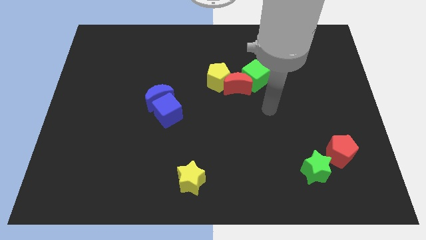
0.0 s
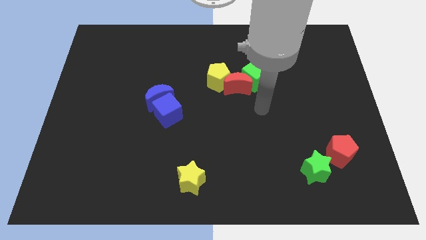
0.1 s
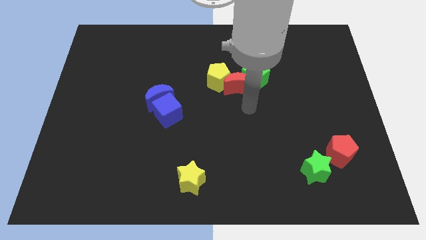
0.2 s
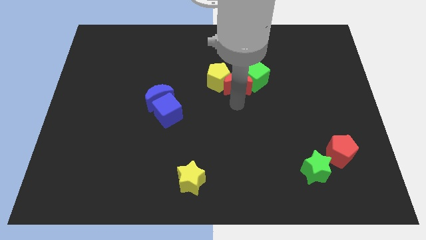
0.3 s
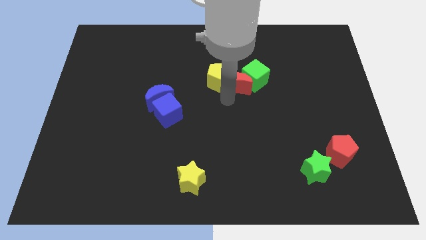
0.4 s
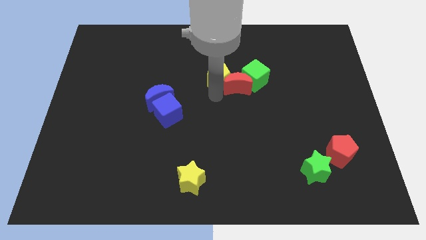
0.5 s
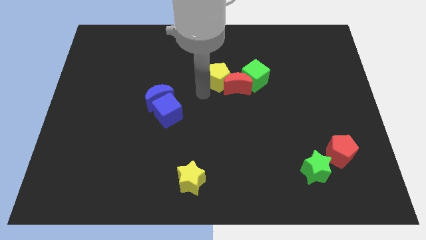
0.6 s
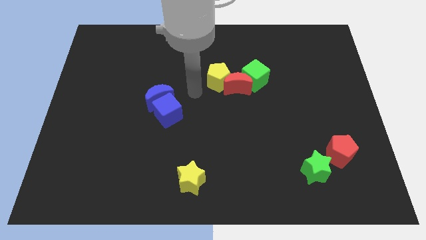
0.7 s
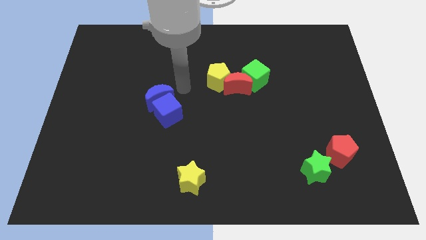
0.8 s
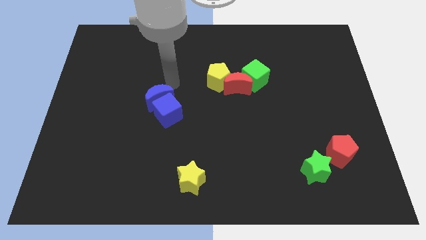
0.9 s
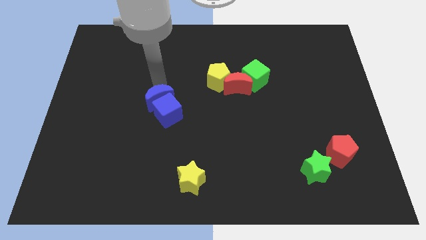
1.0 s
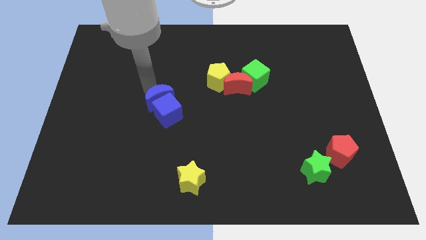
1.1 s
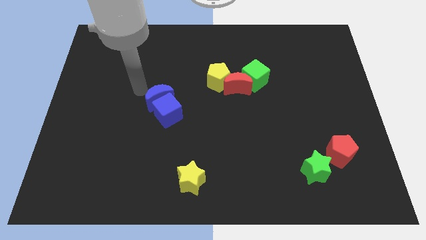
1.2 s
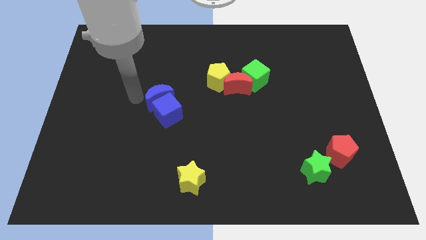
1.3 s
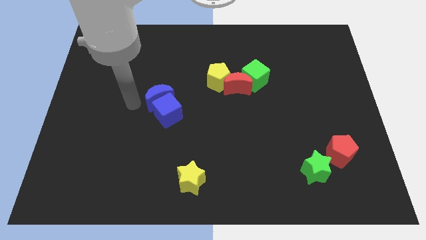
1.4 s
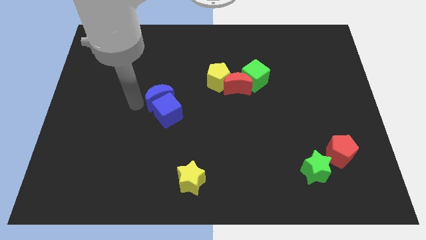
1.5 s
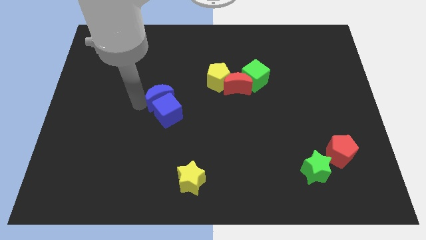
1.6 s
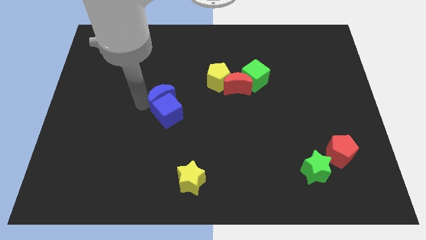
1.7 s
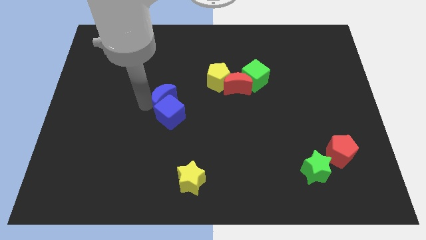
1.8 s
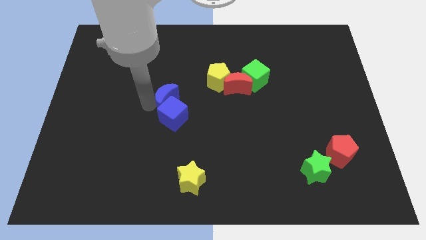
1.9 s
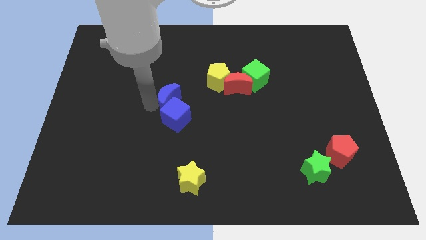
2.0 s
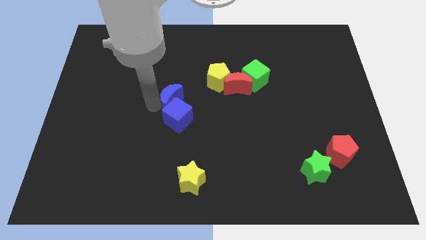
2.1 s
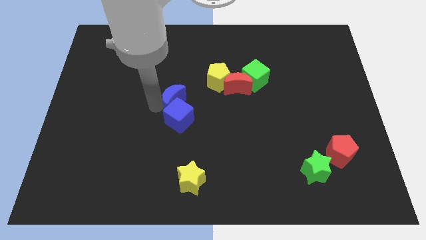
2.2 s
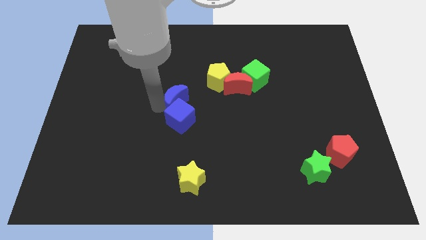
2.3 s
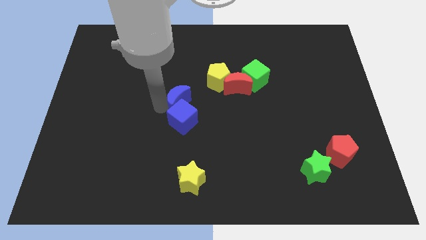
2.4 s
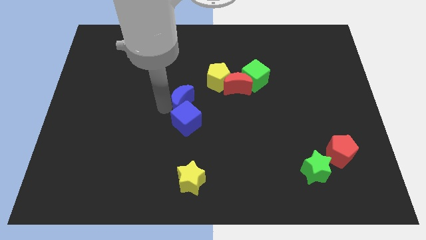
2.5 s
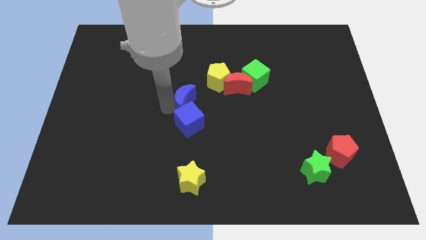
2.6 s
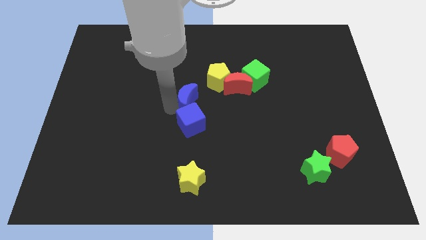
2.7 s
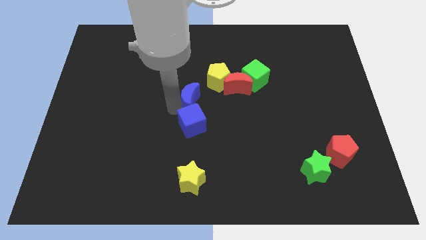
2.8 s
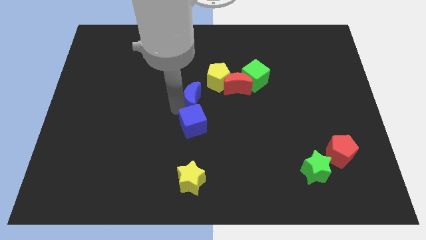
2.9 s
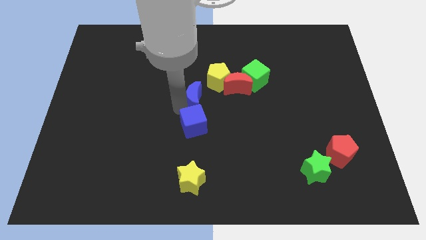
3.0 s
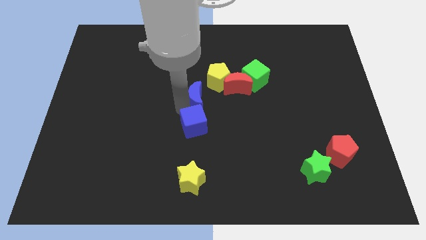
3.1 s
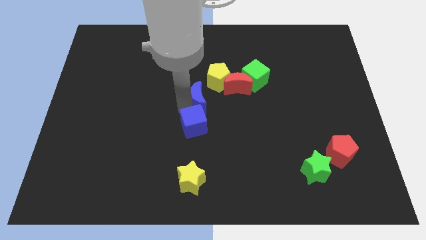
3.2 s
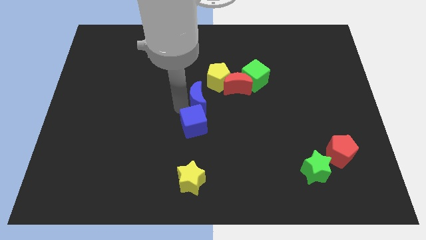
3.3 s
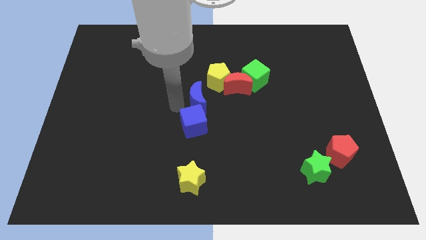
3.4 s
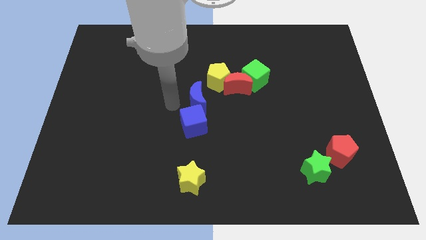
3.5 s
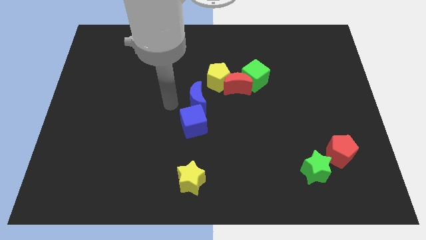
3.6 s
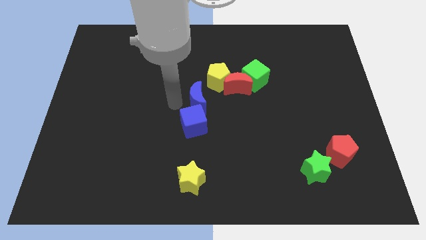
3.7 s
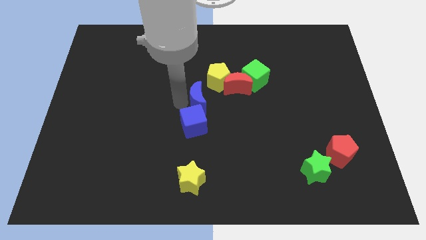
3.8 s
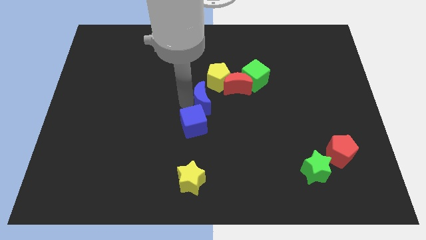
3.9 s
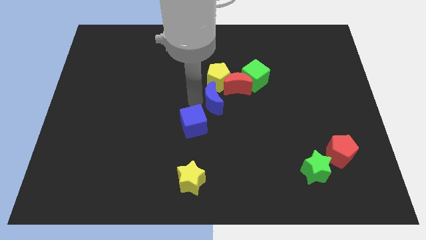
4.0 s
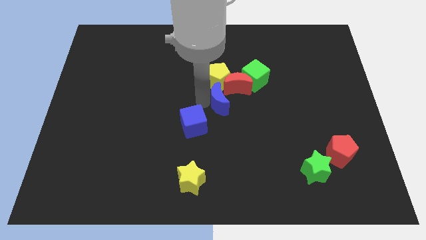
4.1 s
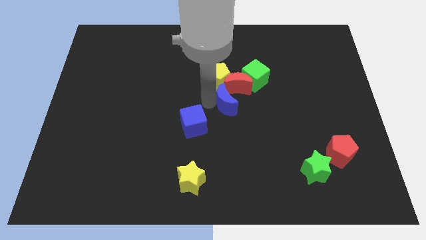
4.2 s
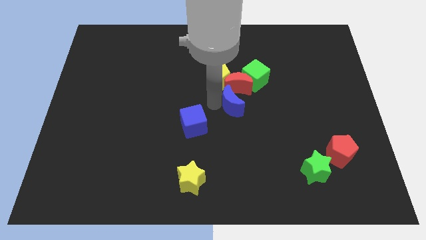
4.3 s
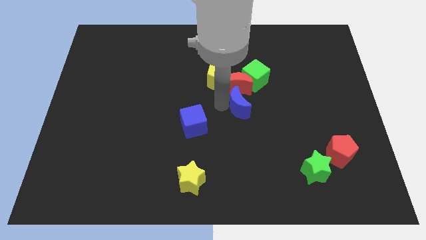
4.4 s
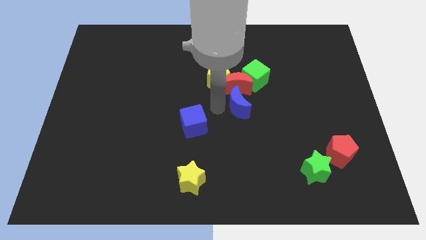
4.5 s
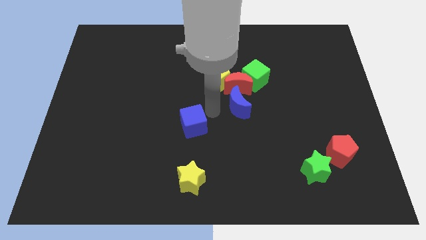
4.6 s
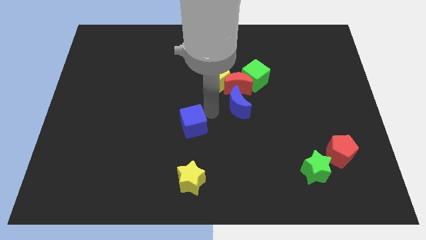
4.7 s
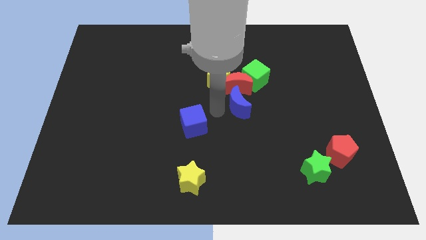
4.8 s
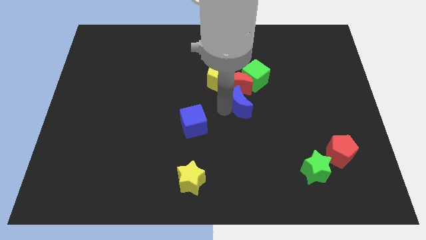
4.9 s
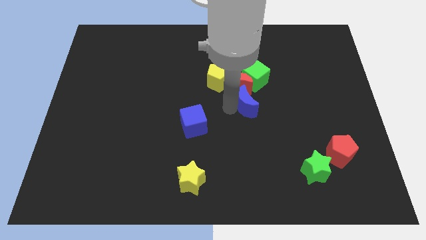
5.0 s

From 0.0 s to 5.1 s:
slide the blue moon to the right

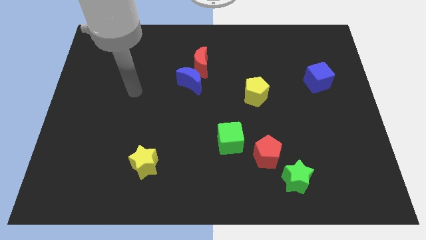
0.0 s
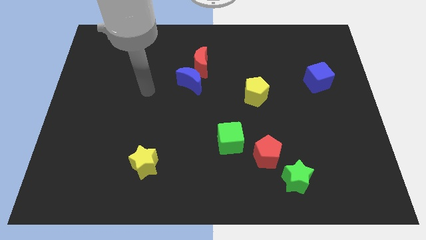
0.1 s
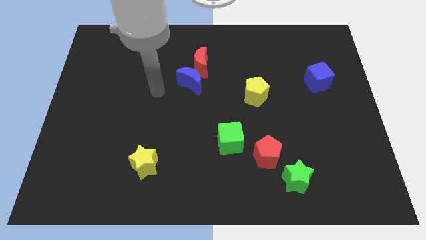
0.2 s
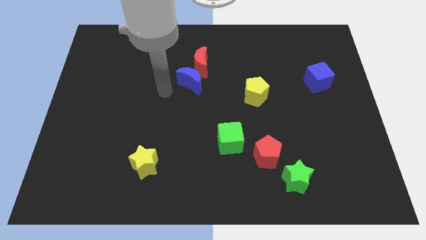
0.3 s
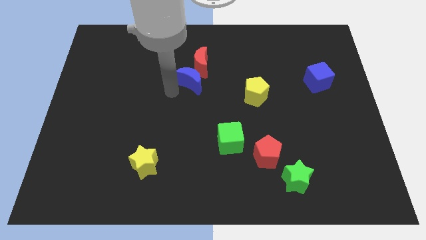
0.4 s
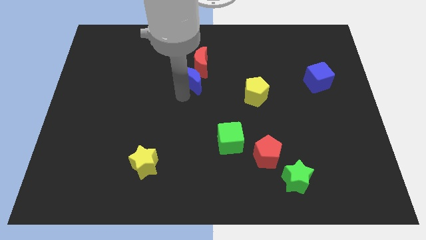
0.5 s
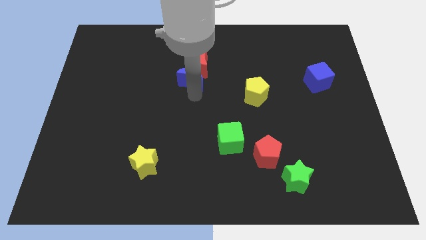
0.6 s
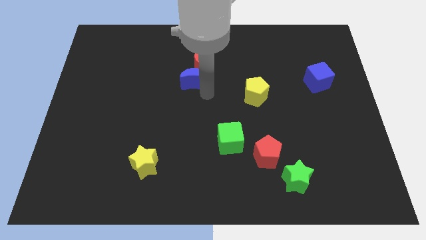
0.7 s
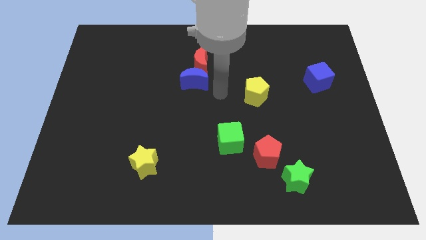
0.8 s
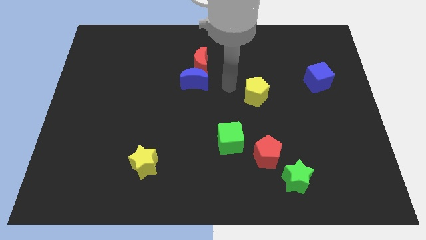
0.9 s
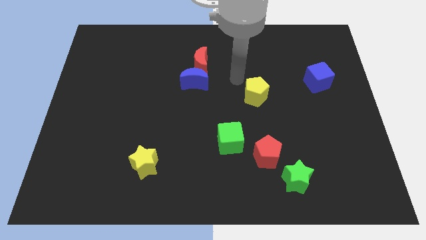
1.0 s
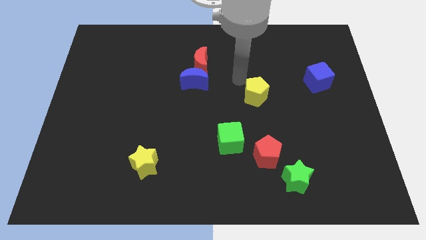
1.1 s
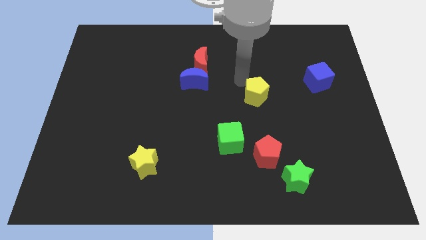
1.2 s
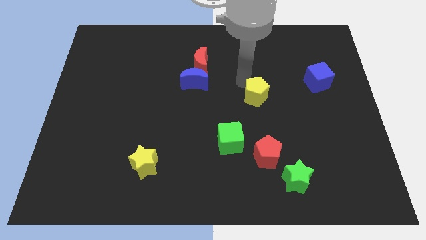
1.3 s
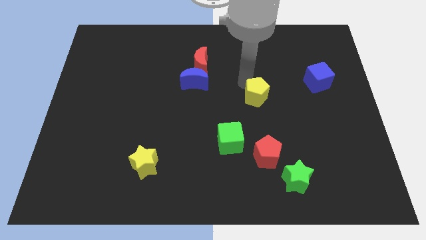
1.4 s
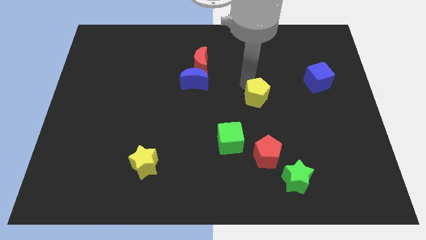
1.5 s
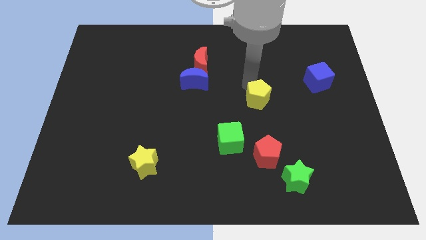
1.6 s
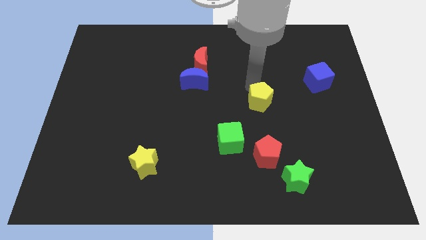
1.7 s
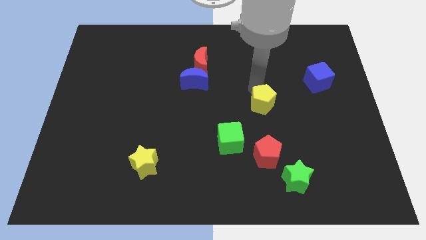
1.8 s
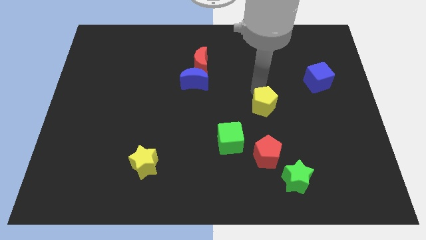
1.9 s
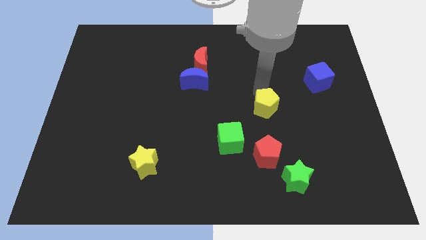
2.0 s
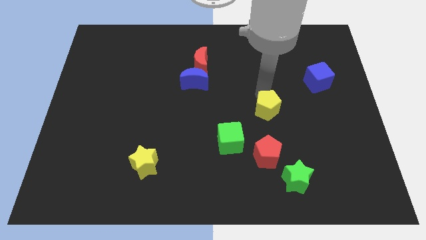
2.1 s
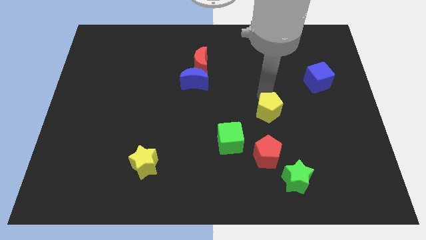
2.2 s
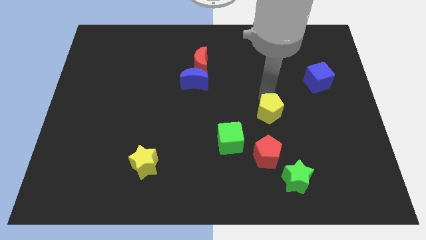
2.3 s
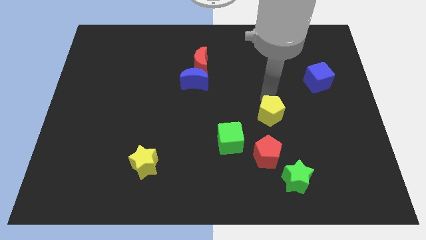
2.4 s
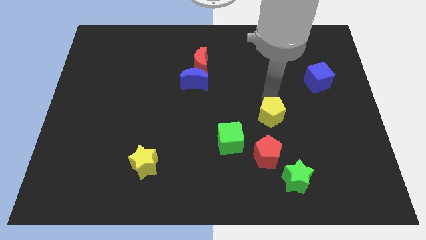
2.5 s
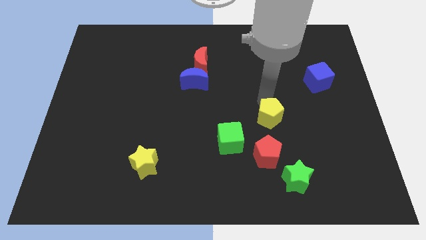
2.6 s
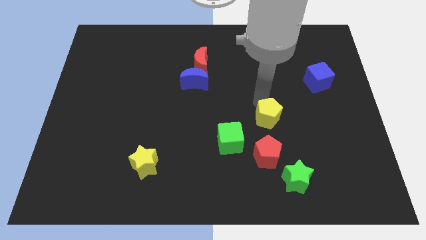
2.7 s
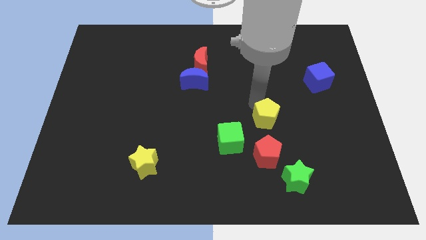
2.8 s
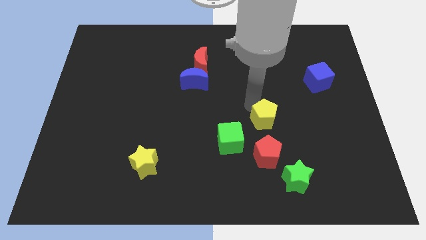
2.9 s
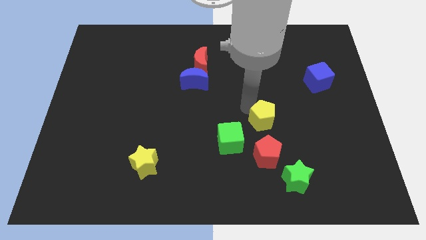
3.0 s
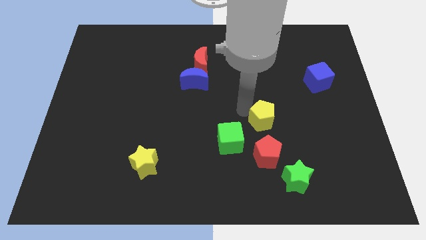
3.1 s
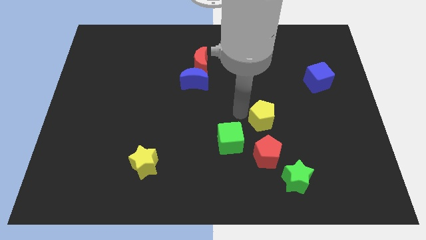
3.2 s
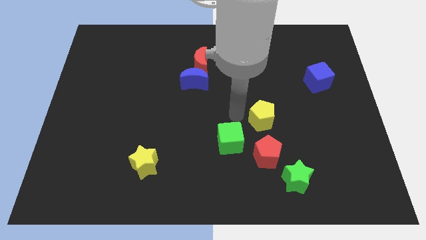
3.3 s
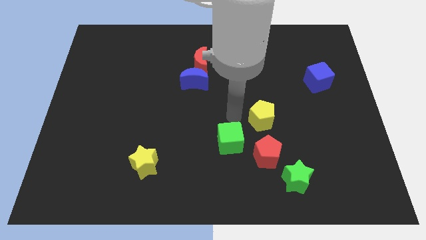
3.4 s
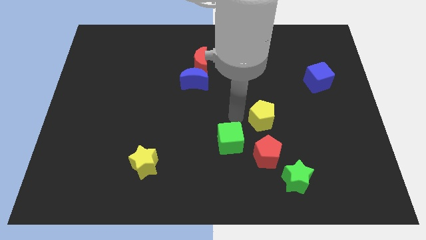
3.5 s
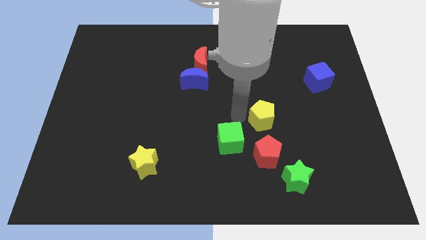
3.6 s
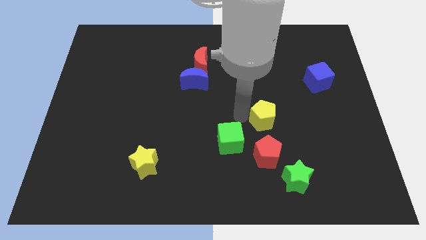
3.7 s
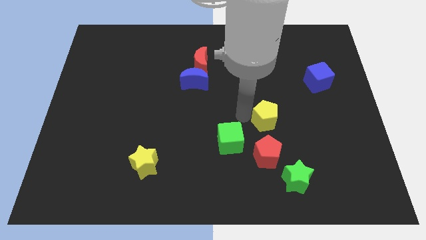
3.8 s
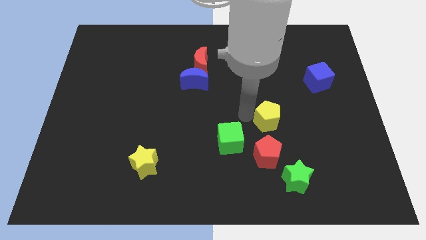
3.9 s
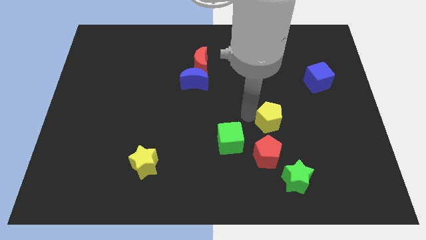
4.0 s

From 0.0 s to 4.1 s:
push the yellow pentagon somewhat down and to the right
